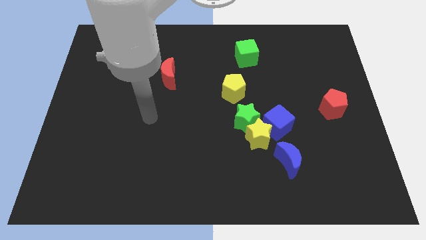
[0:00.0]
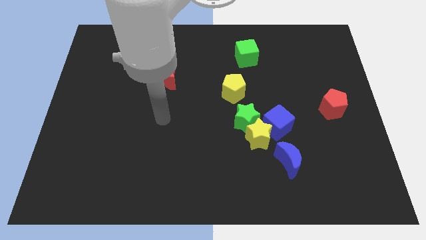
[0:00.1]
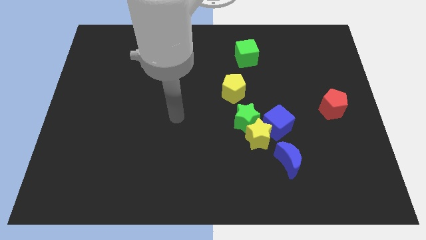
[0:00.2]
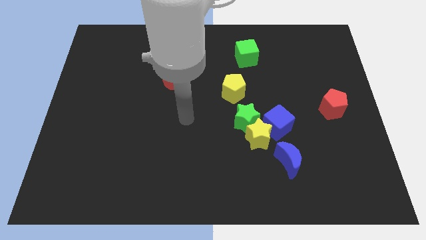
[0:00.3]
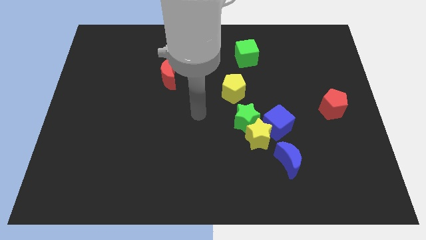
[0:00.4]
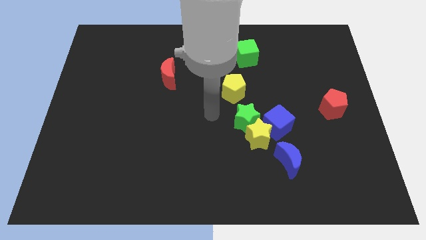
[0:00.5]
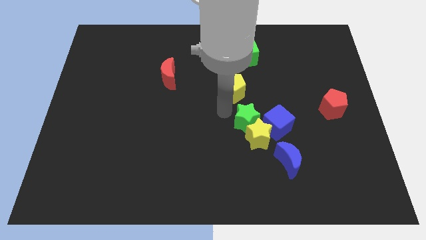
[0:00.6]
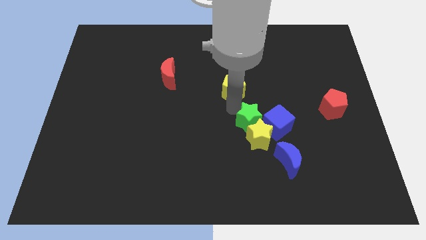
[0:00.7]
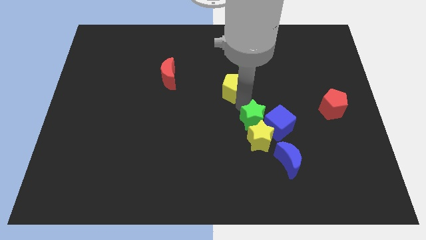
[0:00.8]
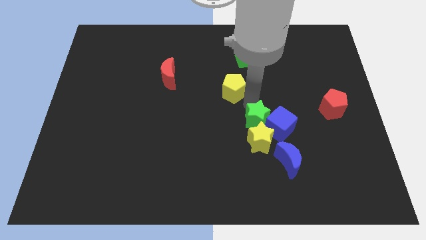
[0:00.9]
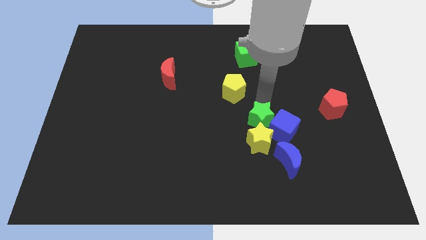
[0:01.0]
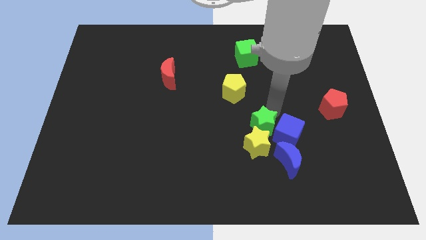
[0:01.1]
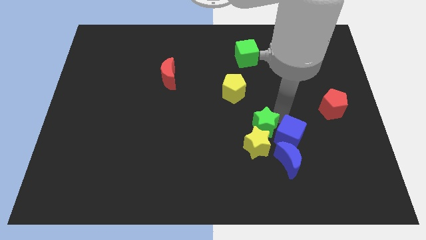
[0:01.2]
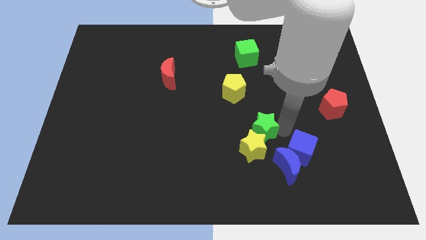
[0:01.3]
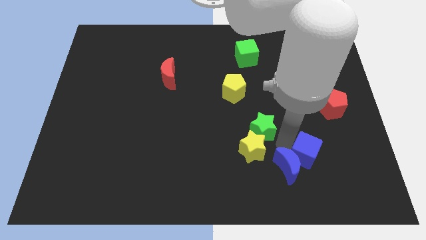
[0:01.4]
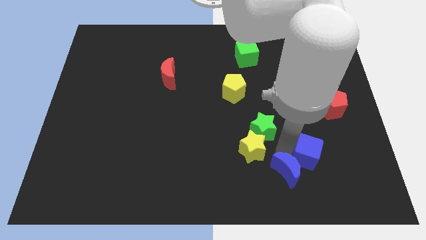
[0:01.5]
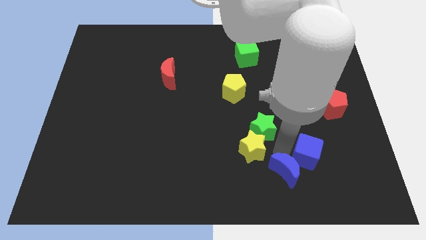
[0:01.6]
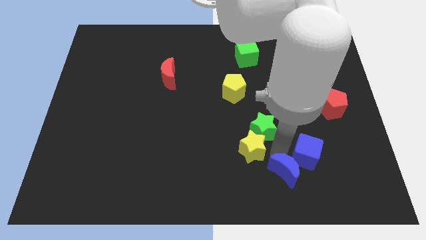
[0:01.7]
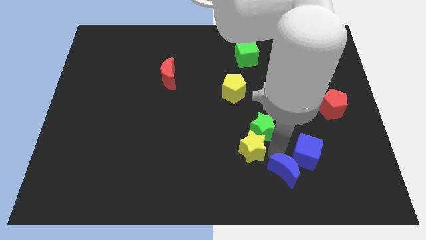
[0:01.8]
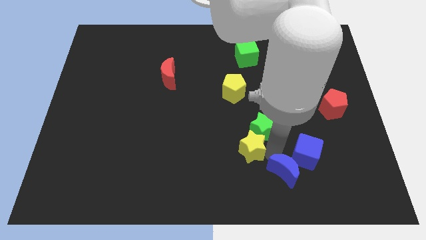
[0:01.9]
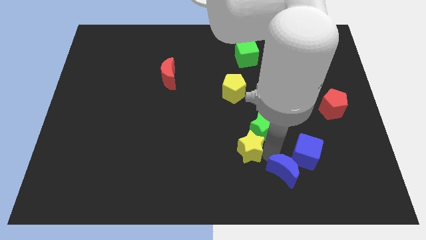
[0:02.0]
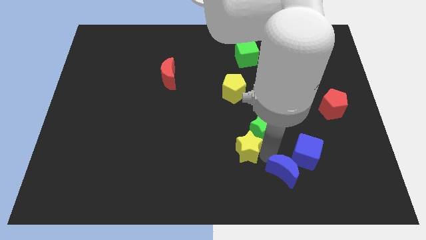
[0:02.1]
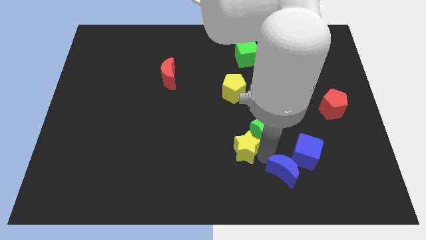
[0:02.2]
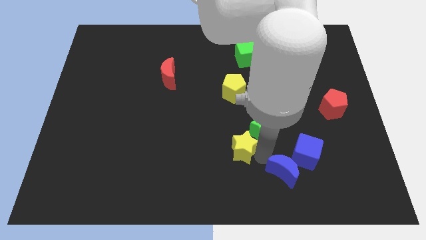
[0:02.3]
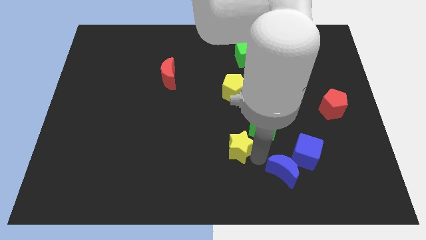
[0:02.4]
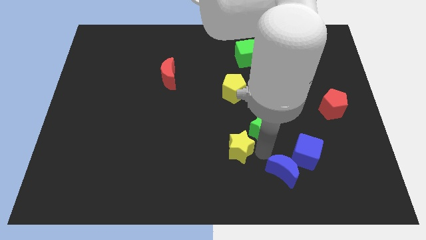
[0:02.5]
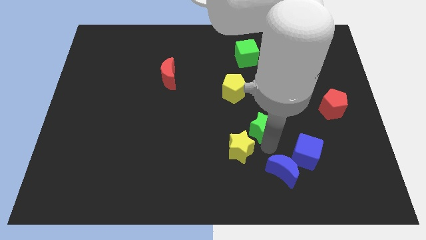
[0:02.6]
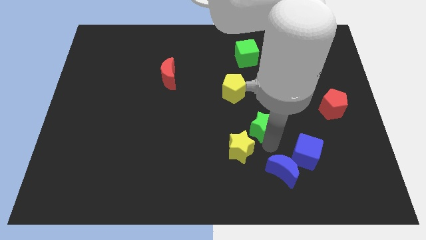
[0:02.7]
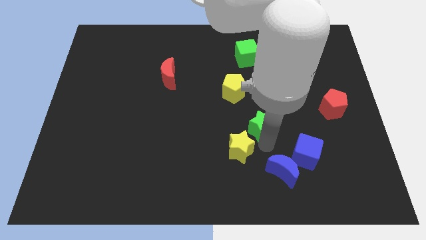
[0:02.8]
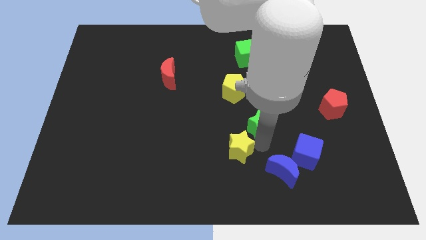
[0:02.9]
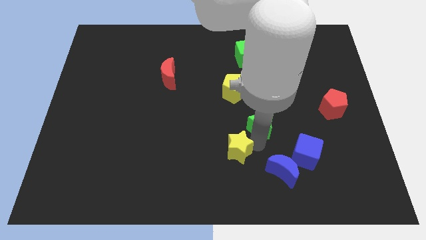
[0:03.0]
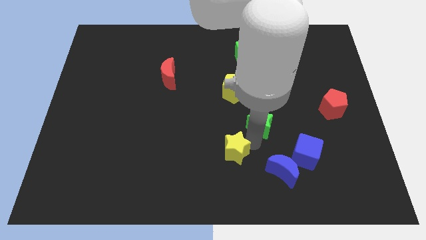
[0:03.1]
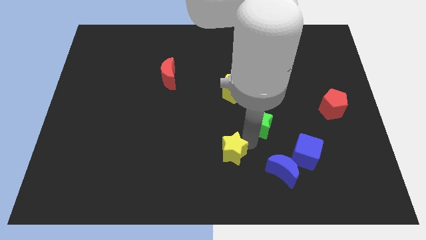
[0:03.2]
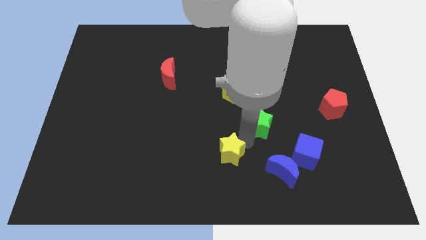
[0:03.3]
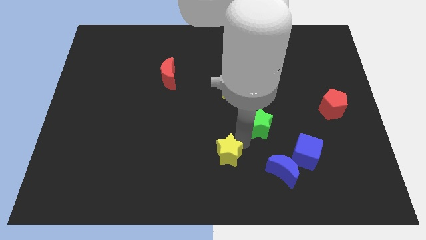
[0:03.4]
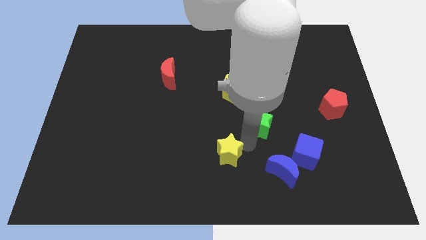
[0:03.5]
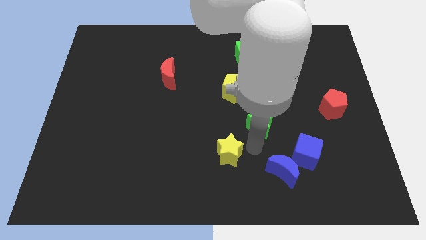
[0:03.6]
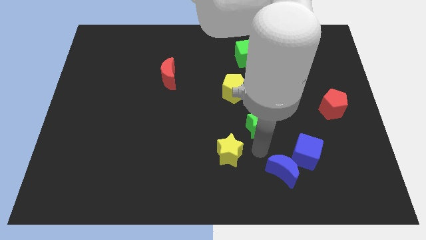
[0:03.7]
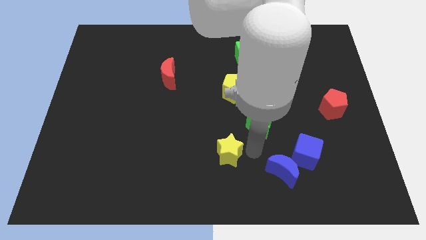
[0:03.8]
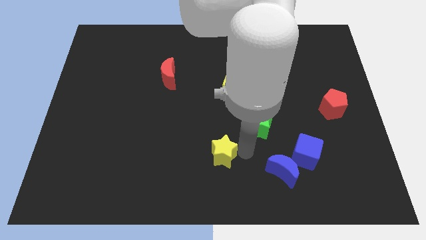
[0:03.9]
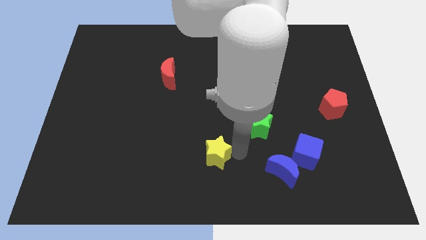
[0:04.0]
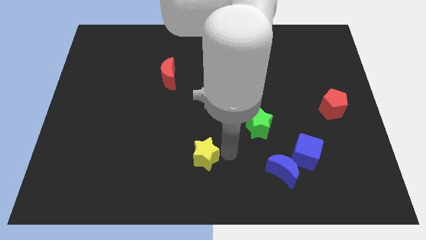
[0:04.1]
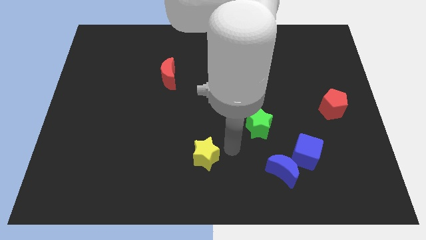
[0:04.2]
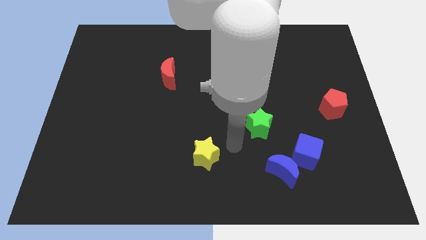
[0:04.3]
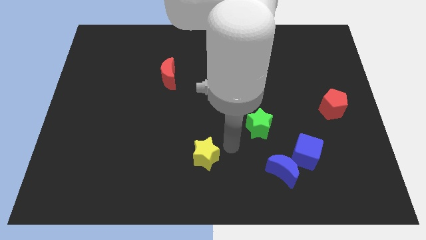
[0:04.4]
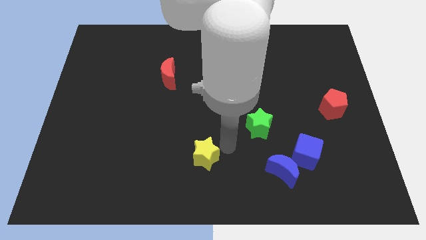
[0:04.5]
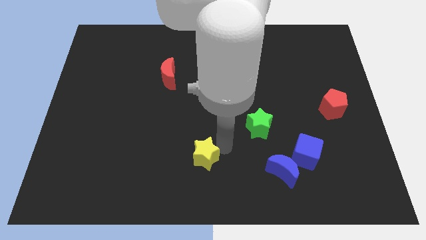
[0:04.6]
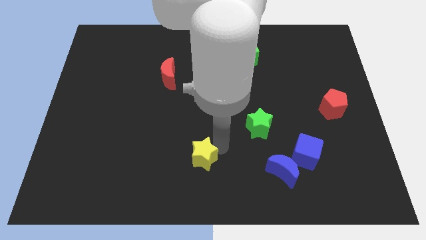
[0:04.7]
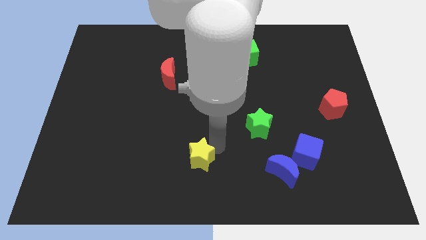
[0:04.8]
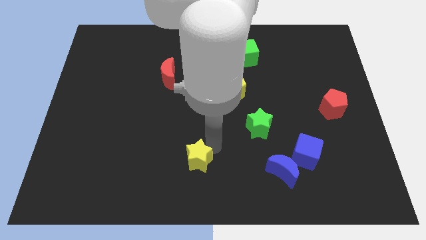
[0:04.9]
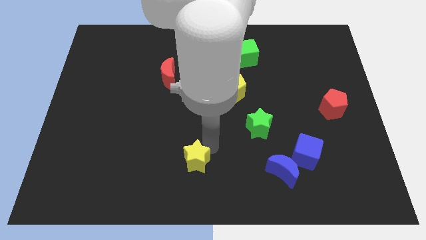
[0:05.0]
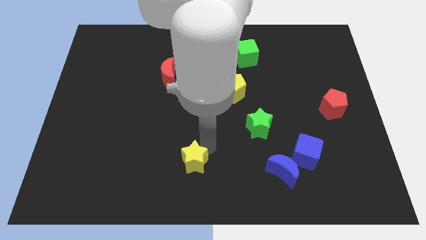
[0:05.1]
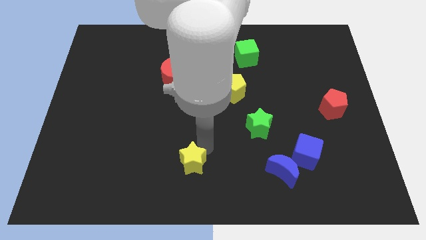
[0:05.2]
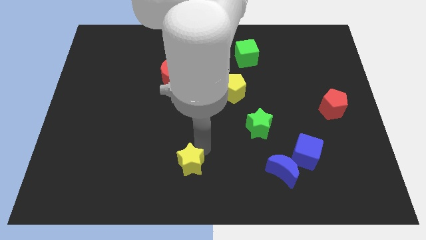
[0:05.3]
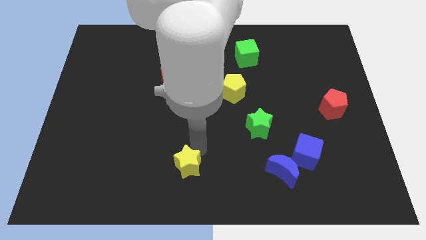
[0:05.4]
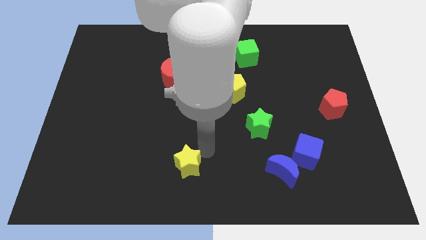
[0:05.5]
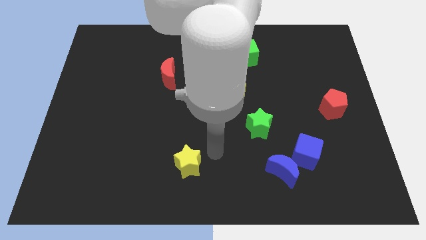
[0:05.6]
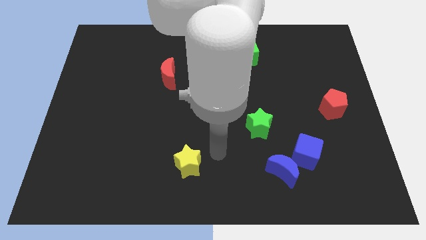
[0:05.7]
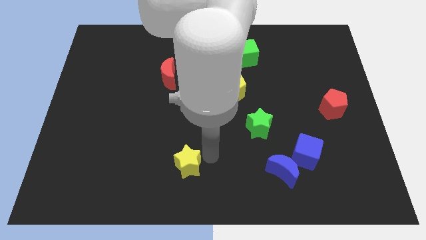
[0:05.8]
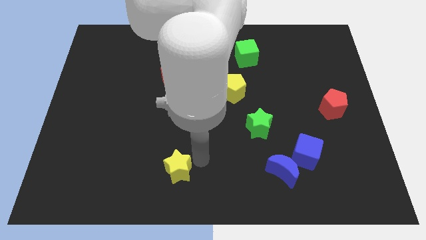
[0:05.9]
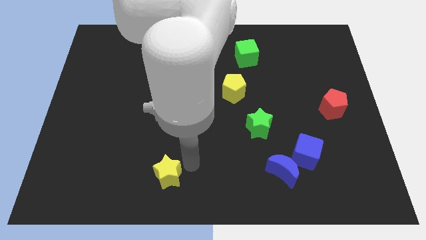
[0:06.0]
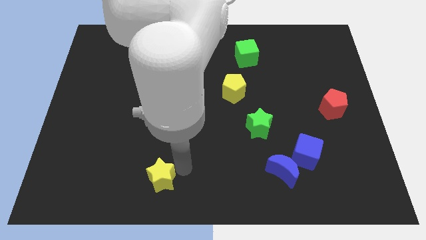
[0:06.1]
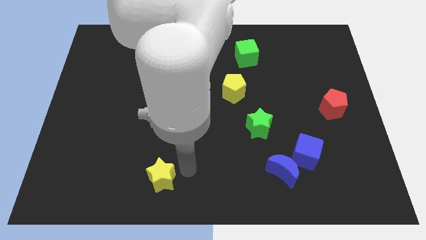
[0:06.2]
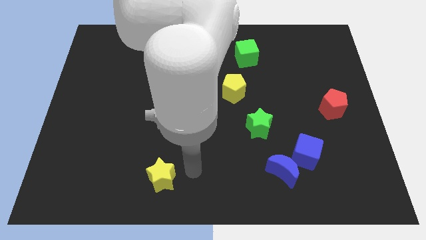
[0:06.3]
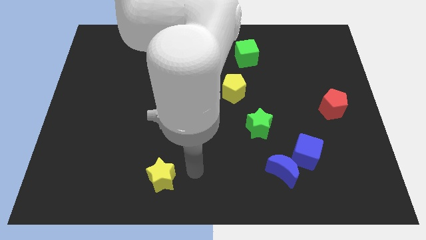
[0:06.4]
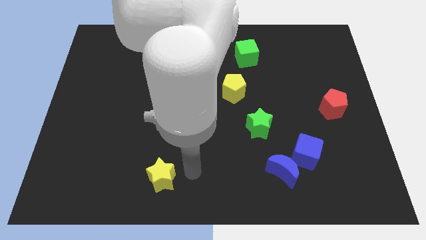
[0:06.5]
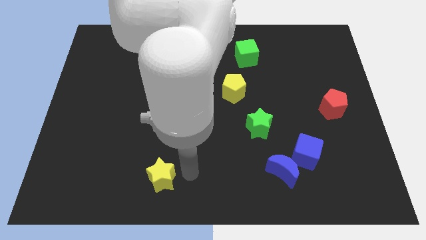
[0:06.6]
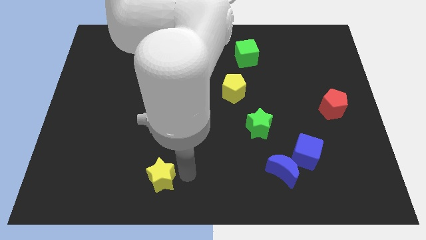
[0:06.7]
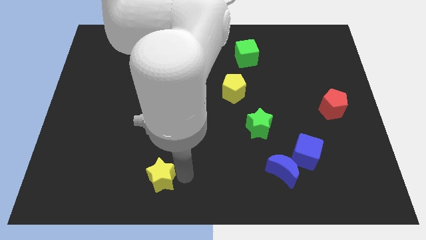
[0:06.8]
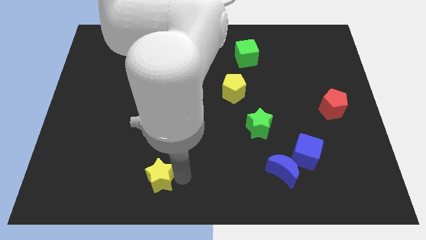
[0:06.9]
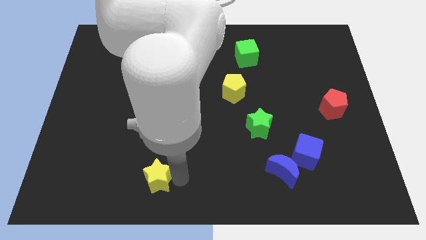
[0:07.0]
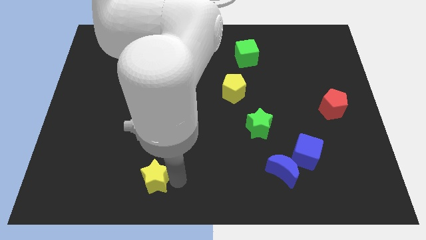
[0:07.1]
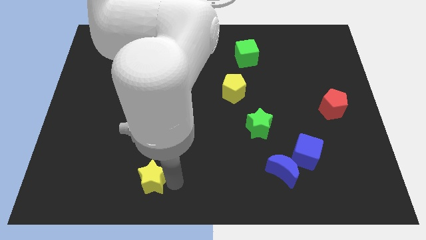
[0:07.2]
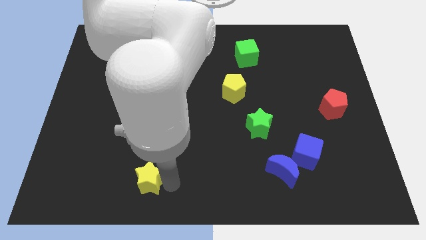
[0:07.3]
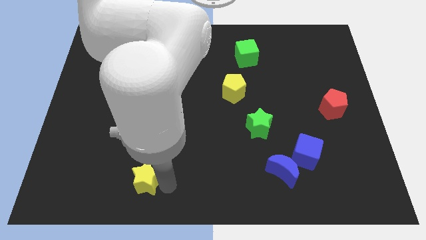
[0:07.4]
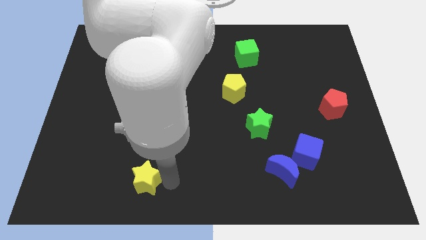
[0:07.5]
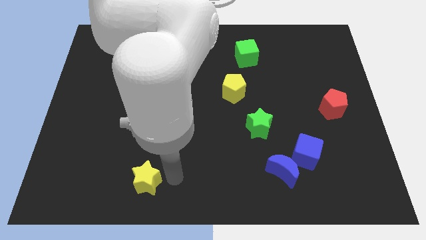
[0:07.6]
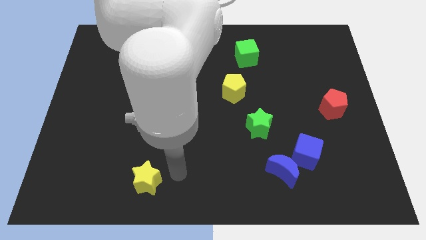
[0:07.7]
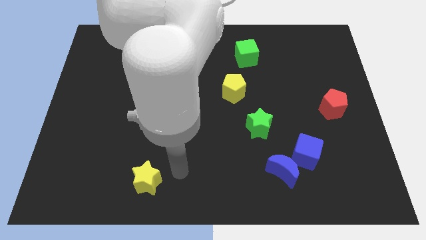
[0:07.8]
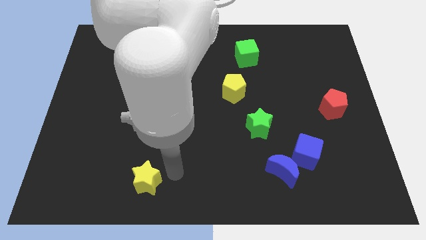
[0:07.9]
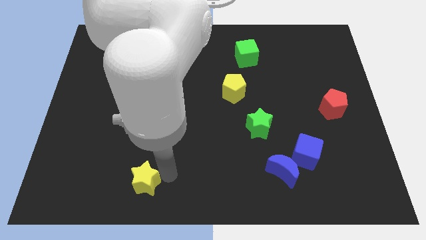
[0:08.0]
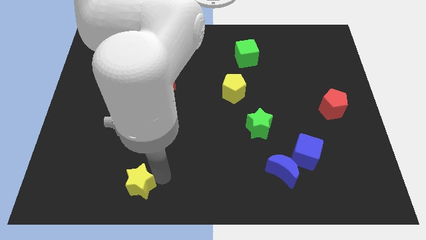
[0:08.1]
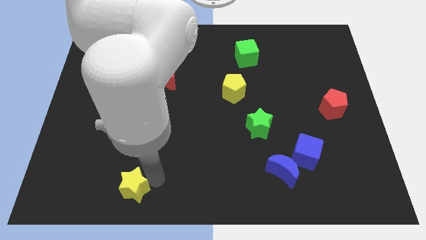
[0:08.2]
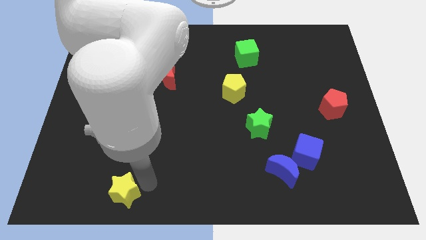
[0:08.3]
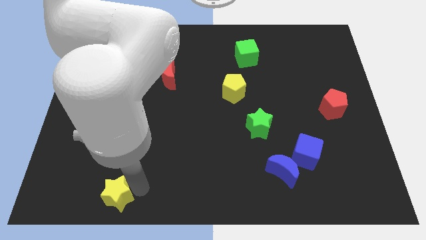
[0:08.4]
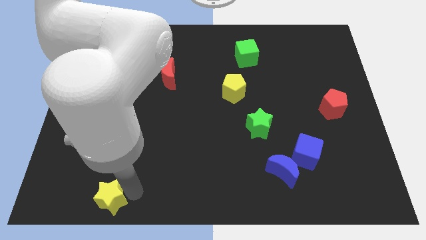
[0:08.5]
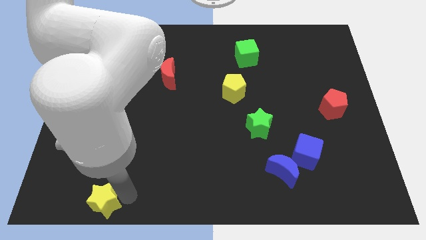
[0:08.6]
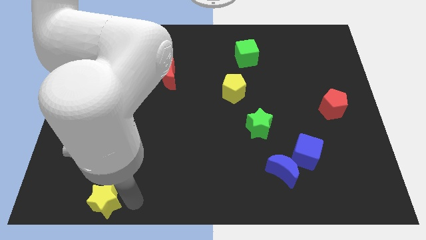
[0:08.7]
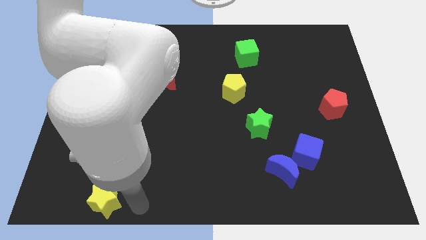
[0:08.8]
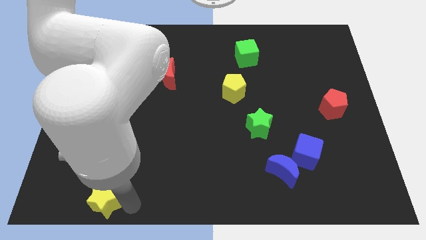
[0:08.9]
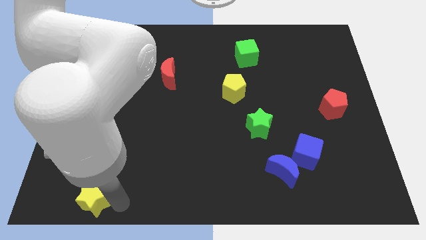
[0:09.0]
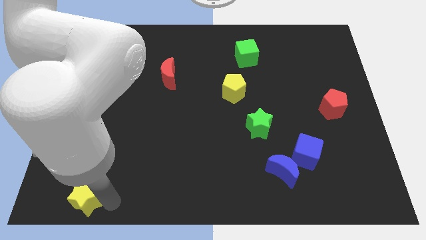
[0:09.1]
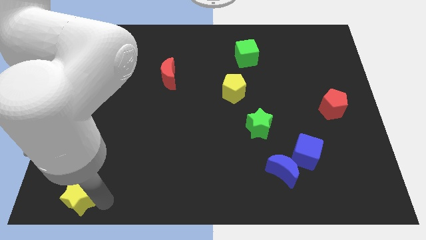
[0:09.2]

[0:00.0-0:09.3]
slide the yellow star to the lower left corner
